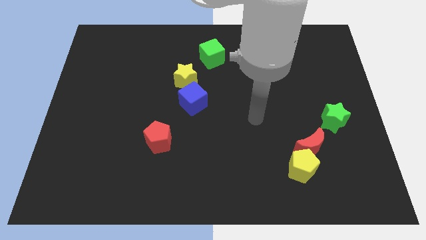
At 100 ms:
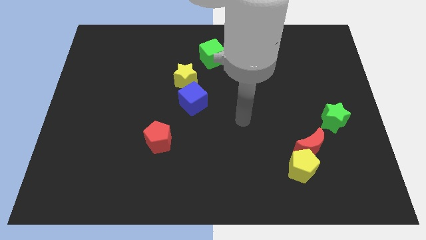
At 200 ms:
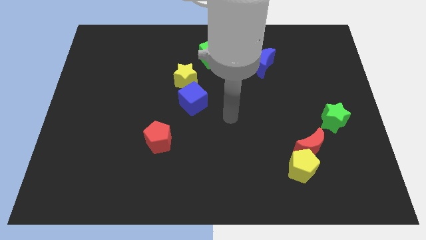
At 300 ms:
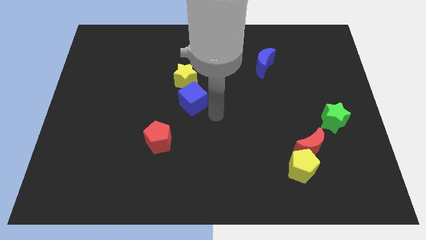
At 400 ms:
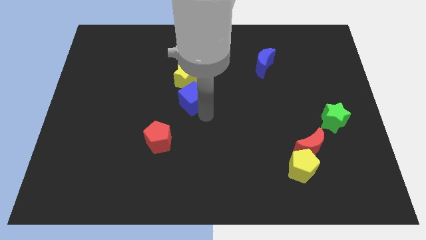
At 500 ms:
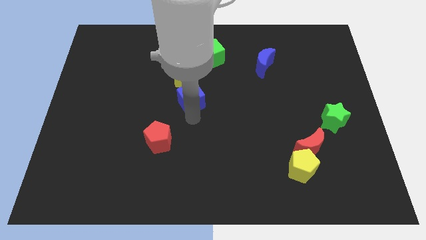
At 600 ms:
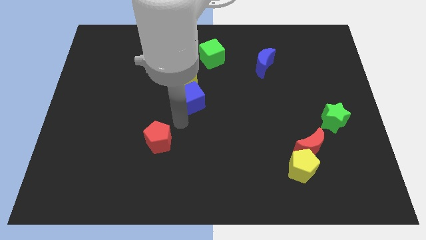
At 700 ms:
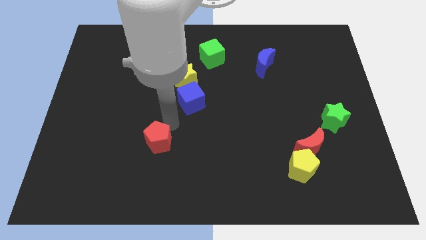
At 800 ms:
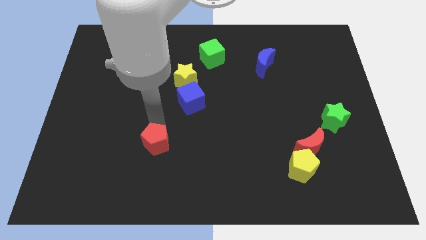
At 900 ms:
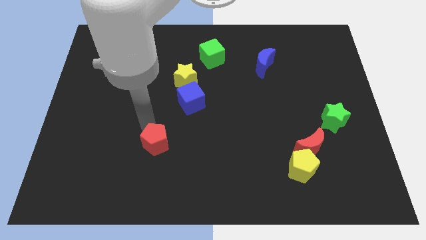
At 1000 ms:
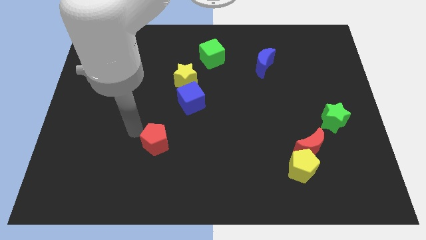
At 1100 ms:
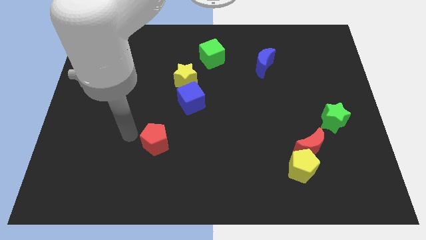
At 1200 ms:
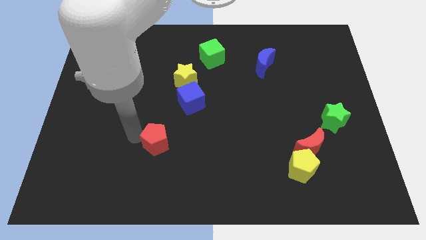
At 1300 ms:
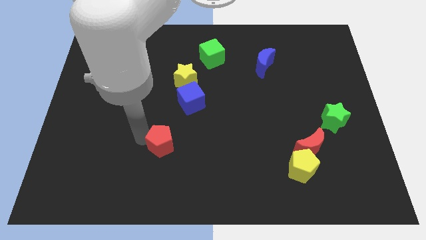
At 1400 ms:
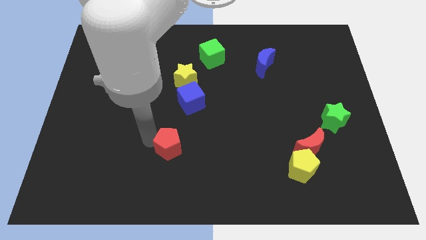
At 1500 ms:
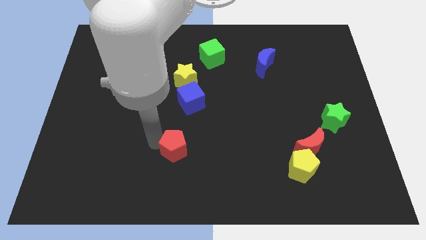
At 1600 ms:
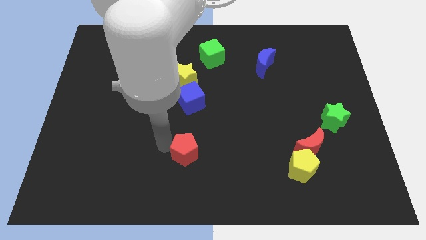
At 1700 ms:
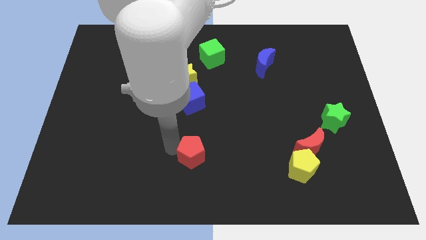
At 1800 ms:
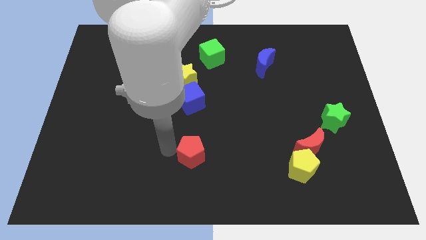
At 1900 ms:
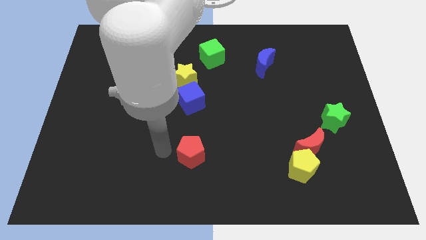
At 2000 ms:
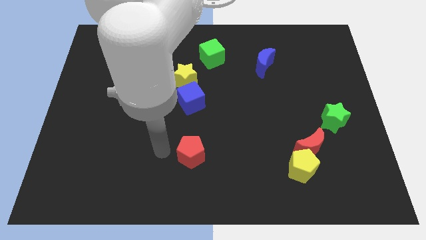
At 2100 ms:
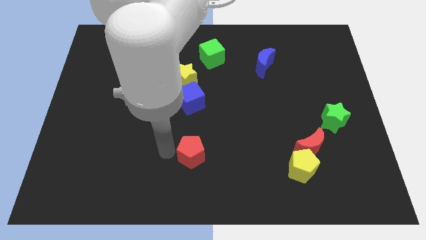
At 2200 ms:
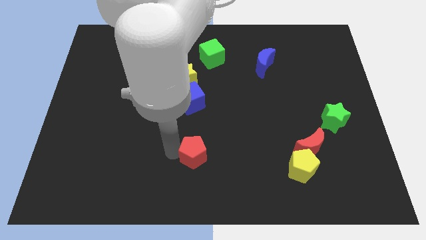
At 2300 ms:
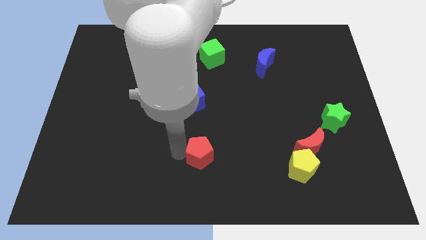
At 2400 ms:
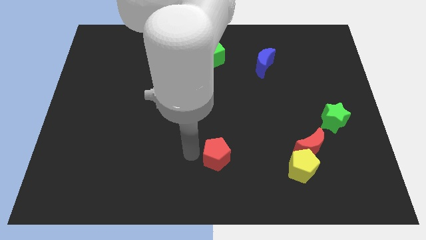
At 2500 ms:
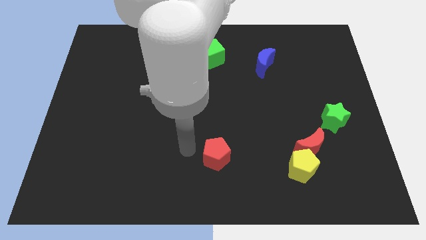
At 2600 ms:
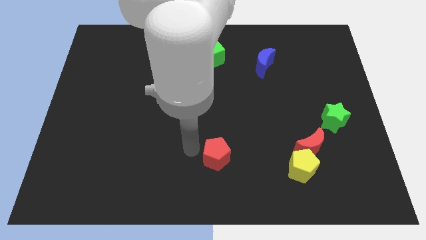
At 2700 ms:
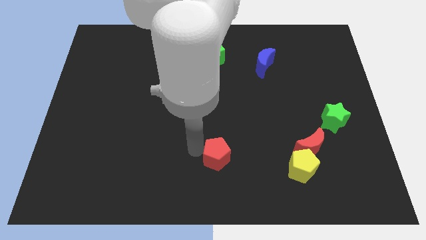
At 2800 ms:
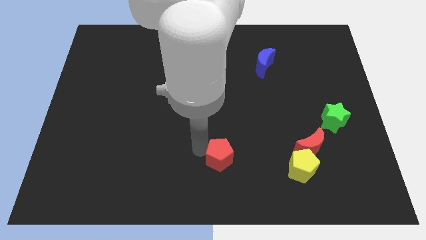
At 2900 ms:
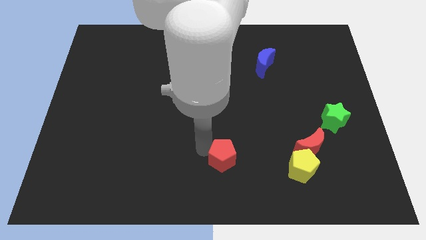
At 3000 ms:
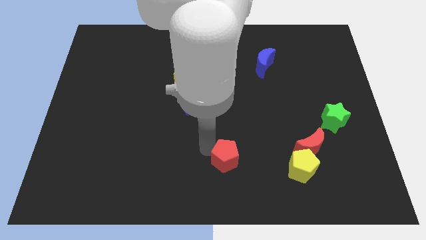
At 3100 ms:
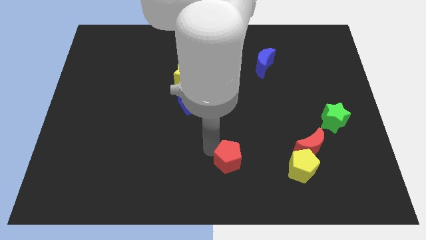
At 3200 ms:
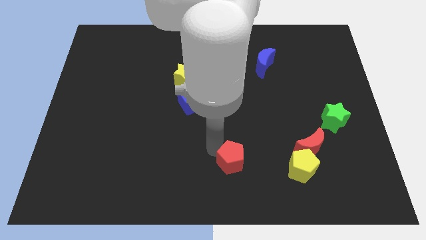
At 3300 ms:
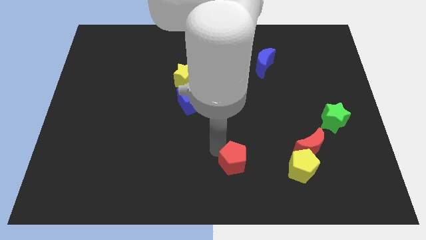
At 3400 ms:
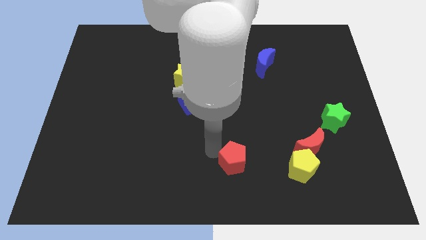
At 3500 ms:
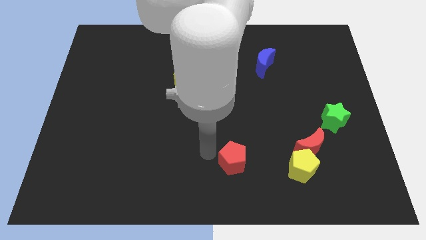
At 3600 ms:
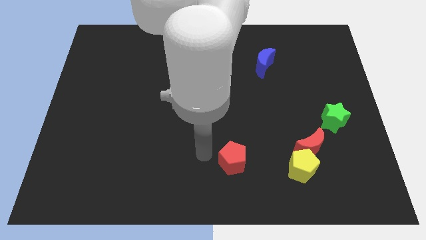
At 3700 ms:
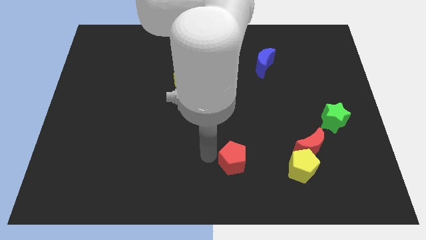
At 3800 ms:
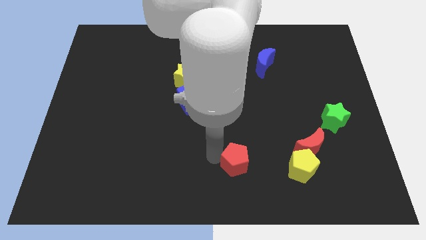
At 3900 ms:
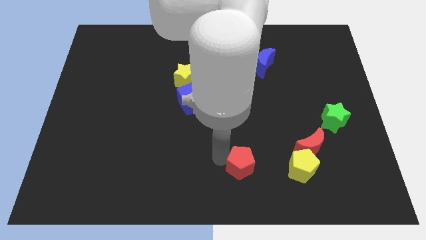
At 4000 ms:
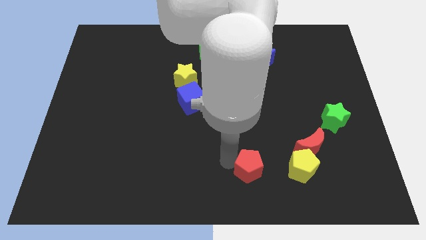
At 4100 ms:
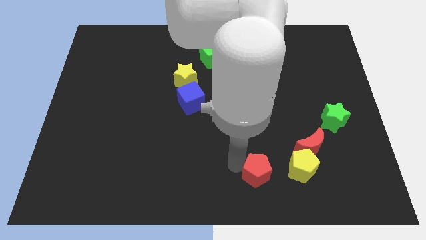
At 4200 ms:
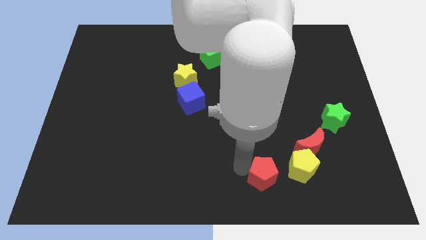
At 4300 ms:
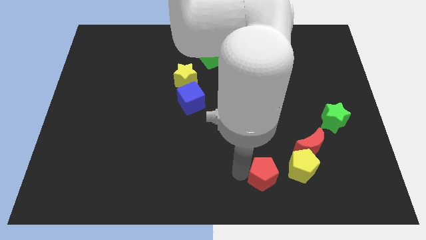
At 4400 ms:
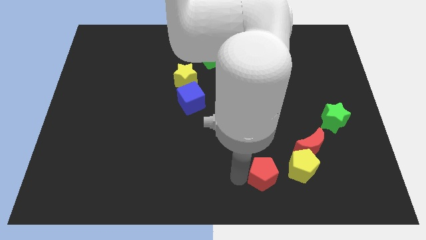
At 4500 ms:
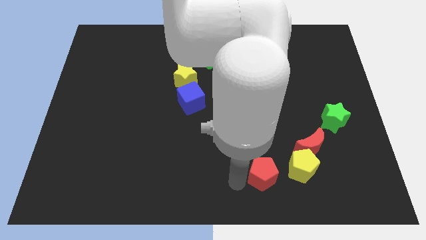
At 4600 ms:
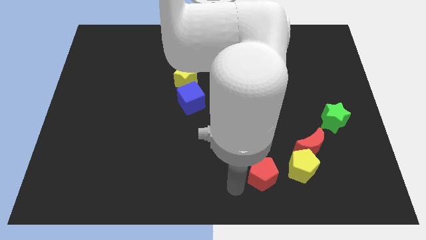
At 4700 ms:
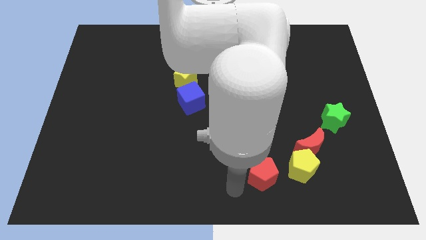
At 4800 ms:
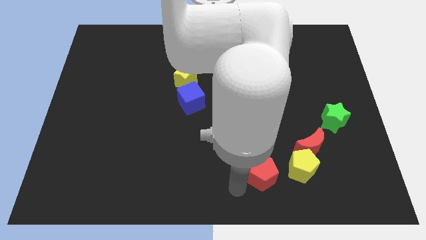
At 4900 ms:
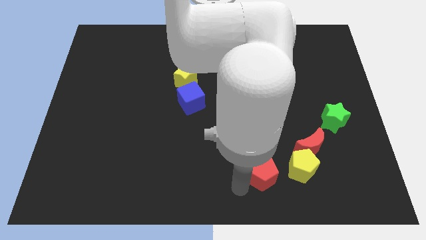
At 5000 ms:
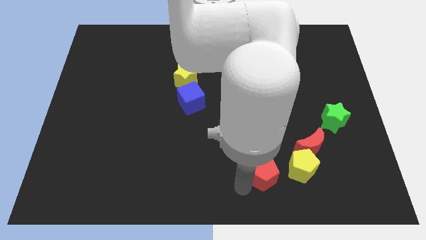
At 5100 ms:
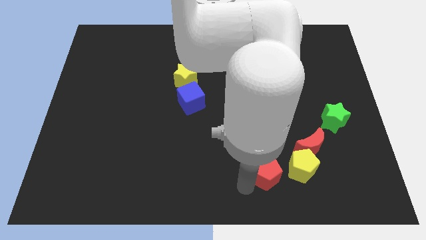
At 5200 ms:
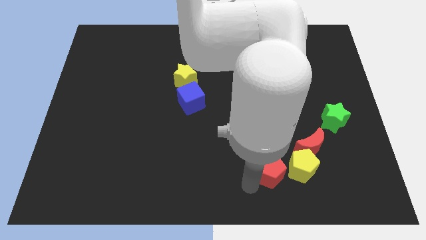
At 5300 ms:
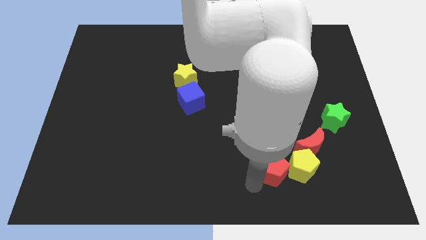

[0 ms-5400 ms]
slide the red pentagon next to the yellow pentagon

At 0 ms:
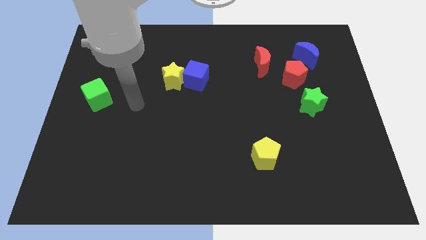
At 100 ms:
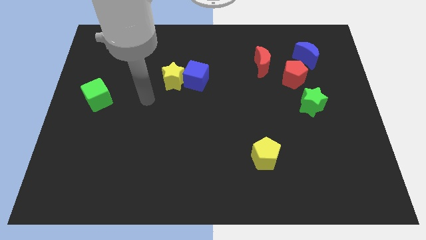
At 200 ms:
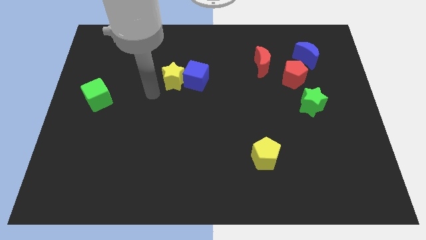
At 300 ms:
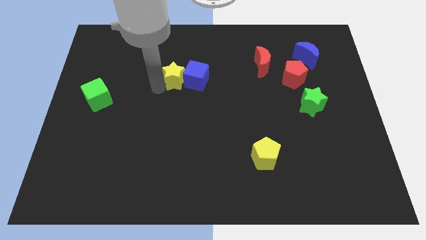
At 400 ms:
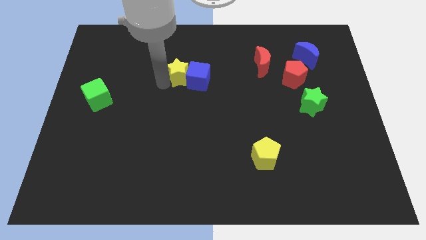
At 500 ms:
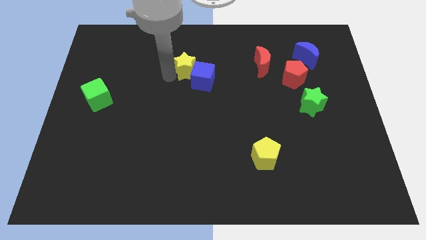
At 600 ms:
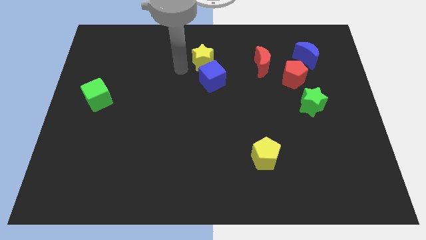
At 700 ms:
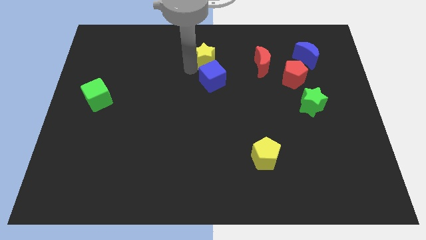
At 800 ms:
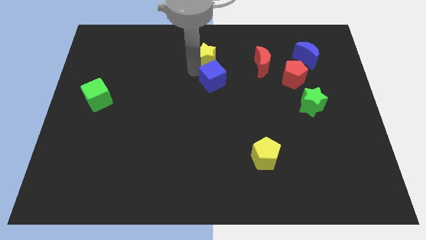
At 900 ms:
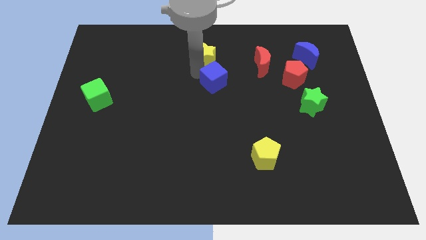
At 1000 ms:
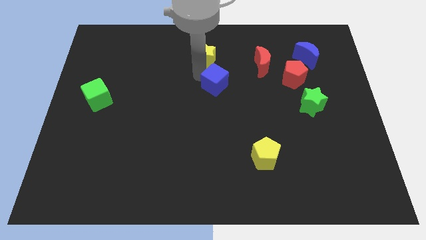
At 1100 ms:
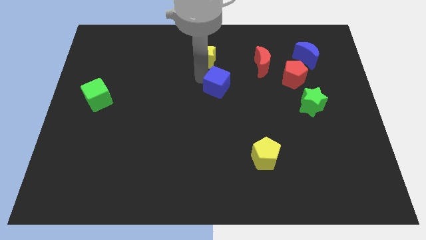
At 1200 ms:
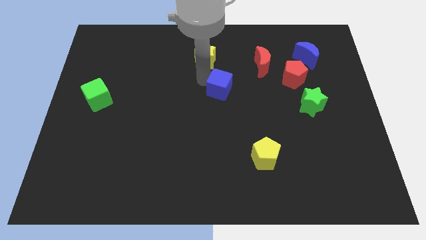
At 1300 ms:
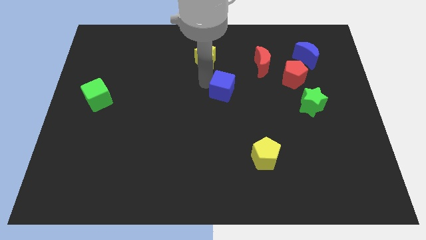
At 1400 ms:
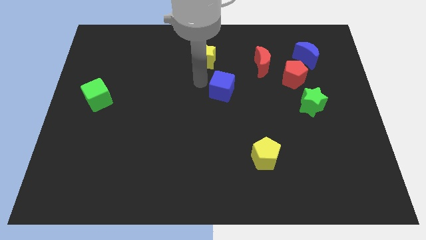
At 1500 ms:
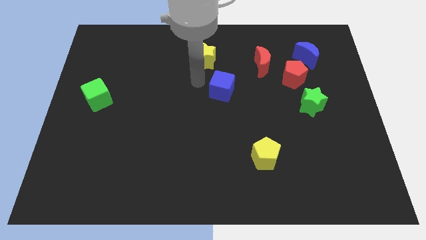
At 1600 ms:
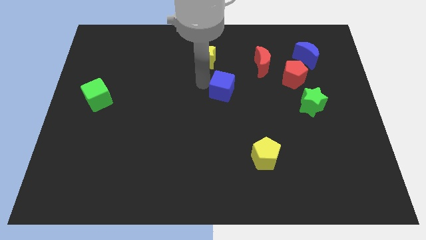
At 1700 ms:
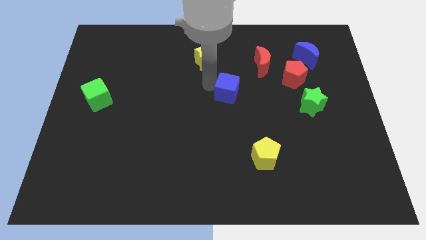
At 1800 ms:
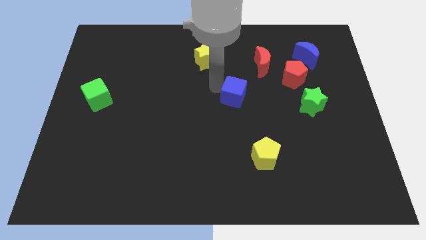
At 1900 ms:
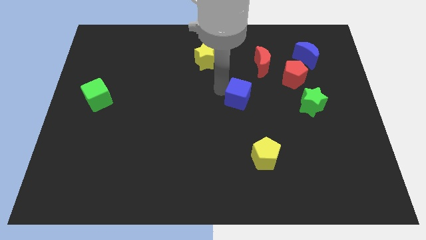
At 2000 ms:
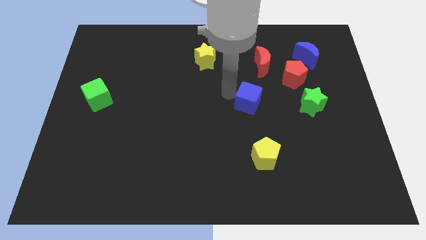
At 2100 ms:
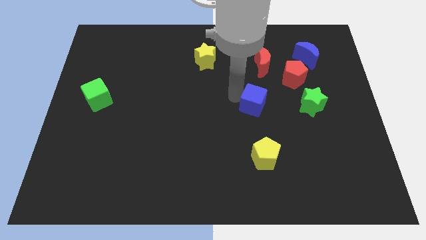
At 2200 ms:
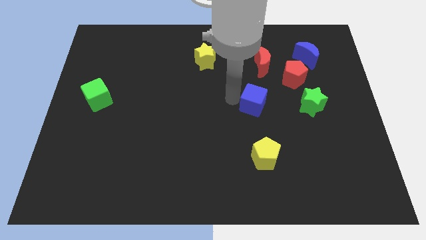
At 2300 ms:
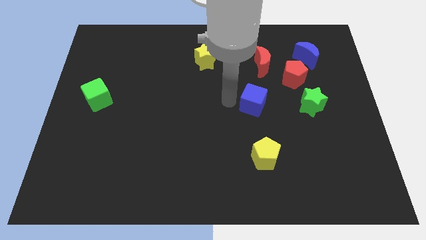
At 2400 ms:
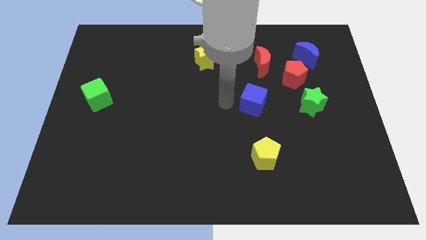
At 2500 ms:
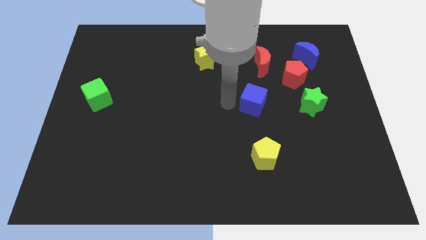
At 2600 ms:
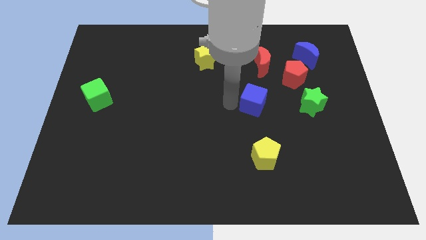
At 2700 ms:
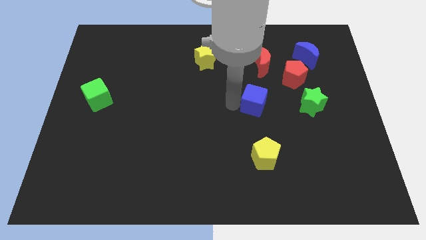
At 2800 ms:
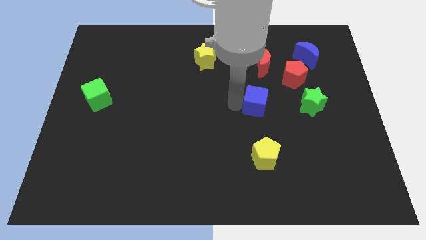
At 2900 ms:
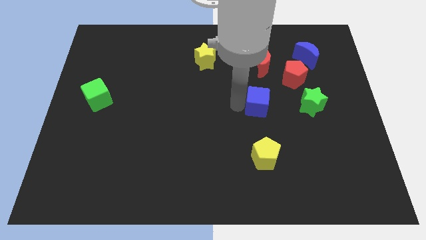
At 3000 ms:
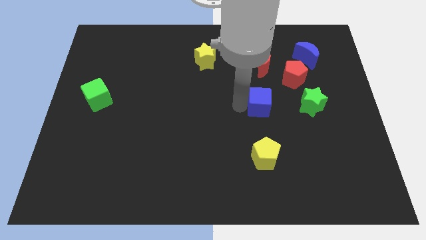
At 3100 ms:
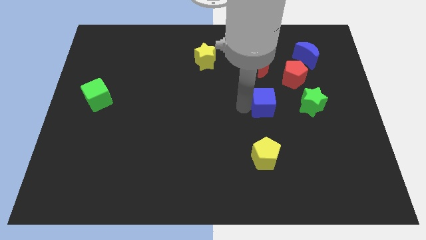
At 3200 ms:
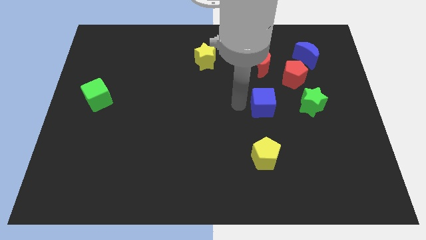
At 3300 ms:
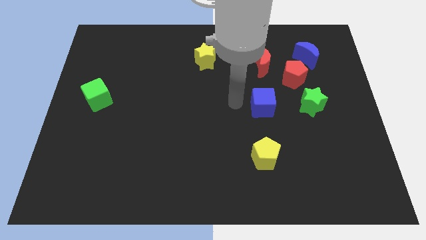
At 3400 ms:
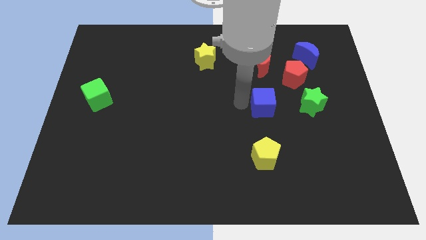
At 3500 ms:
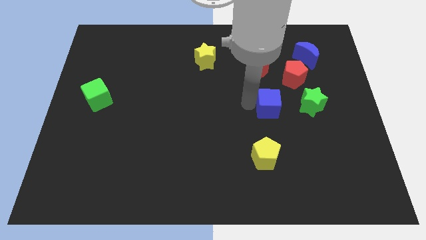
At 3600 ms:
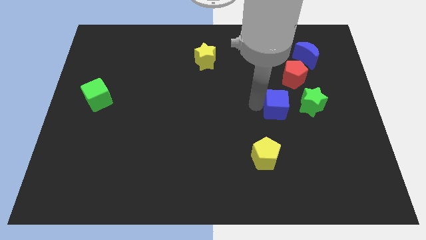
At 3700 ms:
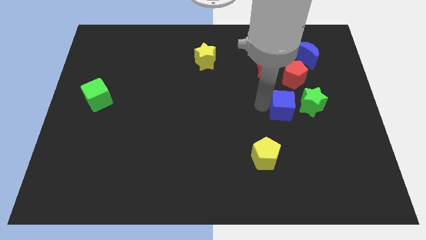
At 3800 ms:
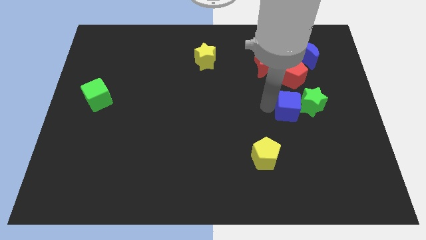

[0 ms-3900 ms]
push the blue cube next to the green star
